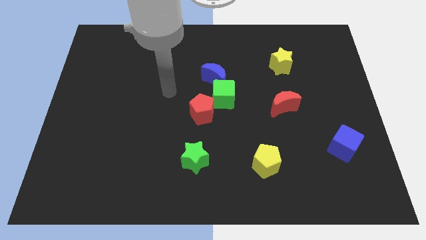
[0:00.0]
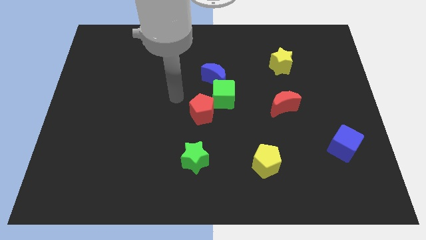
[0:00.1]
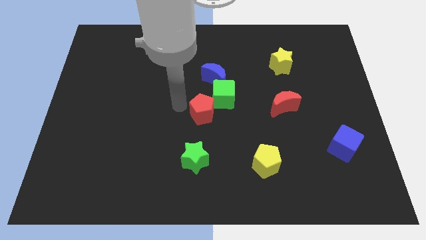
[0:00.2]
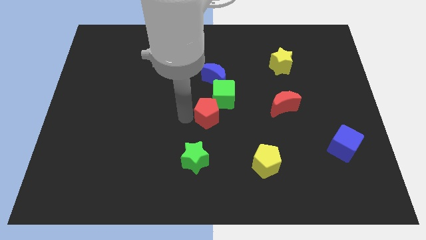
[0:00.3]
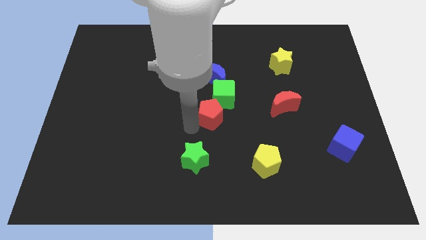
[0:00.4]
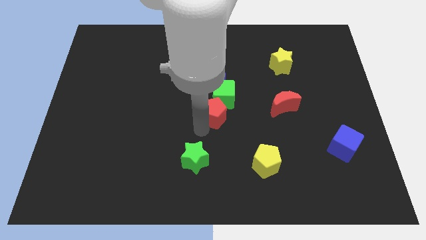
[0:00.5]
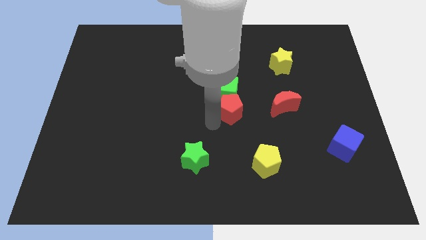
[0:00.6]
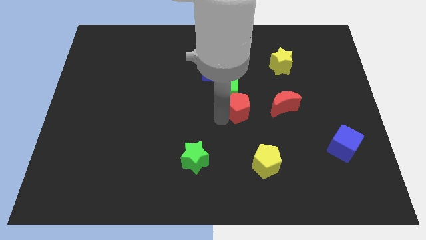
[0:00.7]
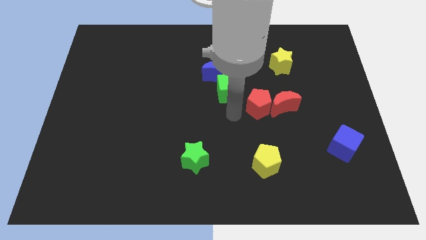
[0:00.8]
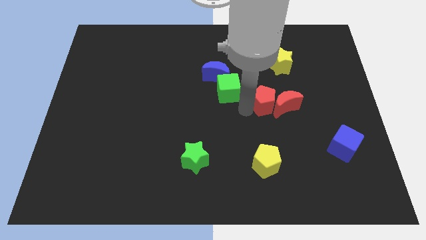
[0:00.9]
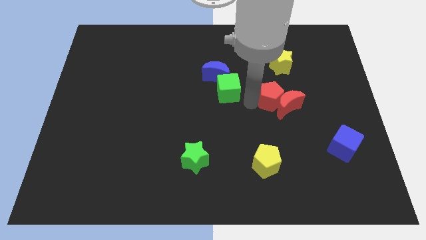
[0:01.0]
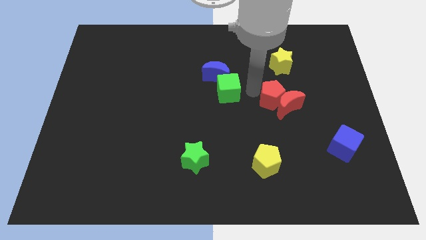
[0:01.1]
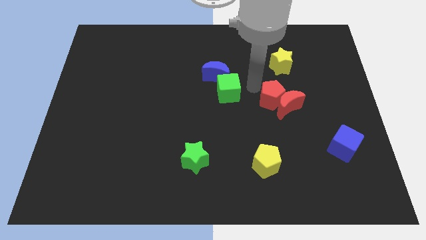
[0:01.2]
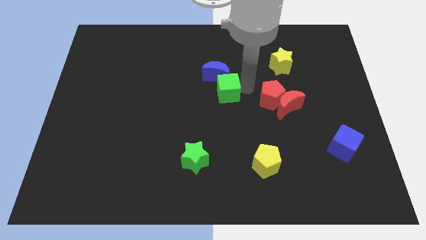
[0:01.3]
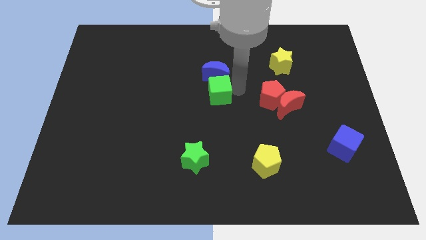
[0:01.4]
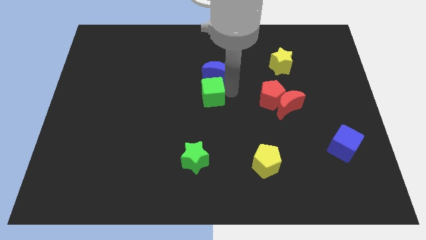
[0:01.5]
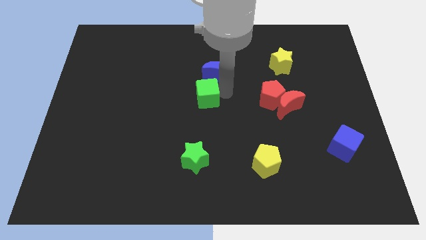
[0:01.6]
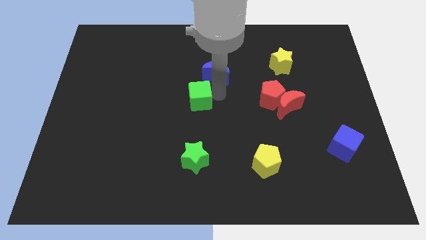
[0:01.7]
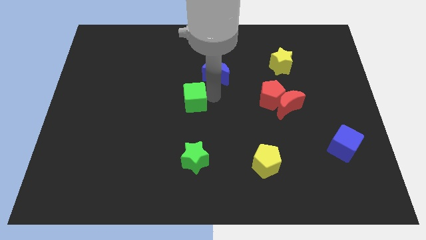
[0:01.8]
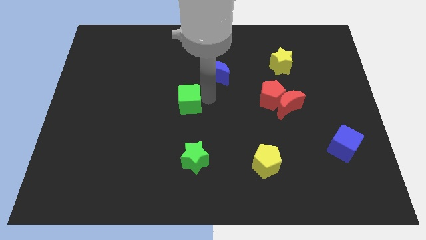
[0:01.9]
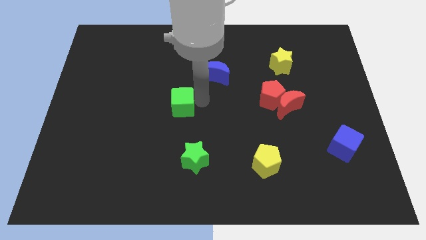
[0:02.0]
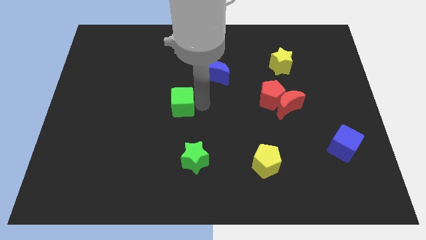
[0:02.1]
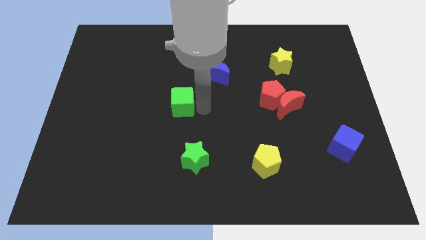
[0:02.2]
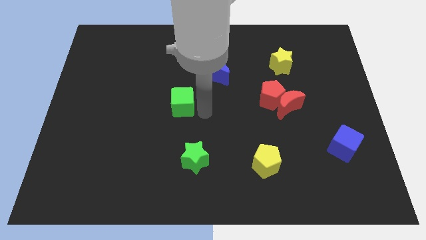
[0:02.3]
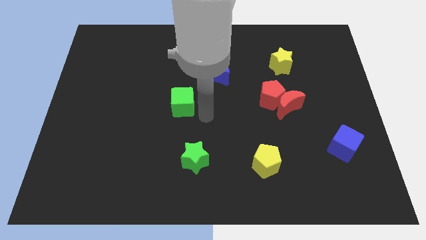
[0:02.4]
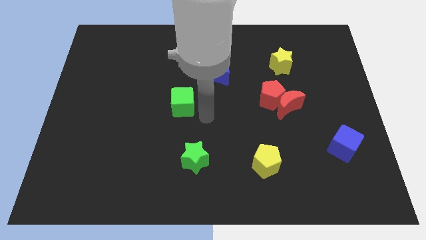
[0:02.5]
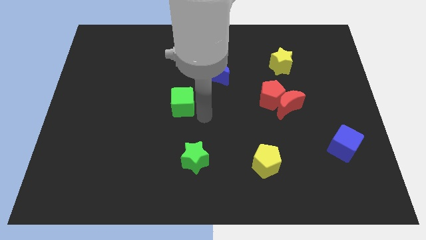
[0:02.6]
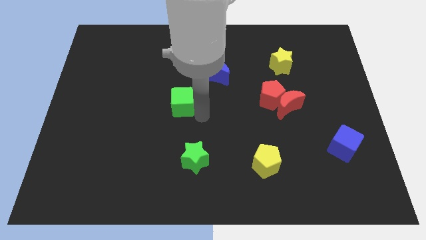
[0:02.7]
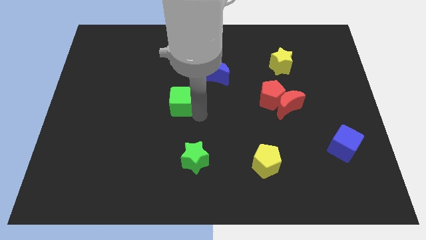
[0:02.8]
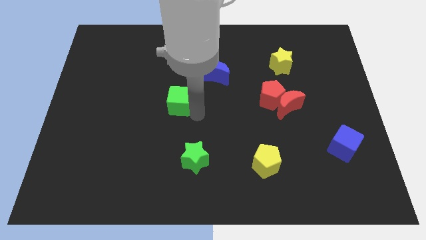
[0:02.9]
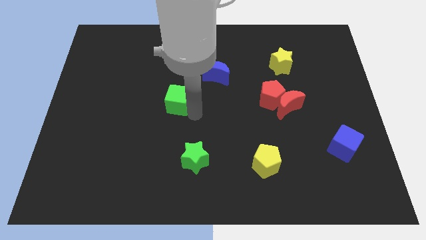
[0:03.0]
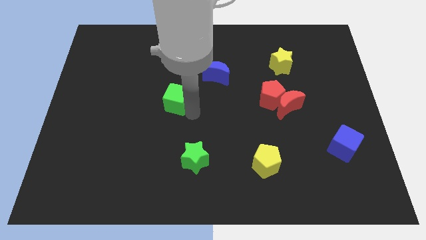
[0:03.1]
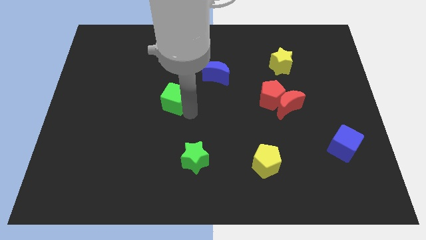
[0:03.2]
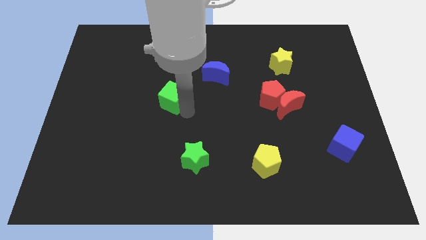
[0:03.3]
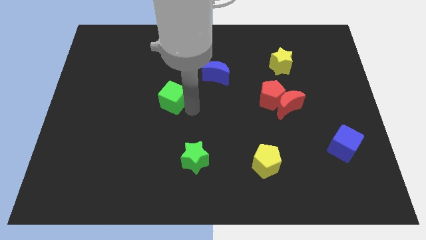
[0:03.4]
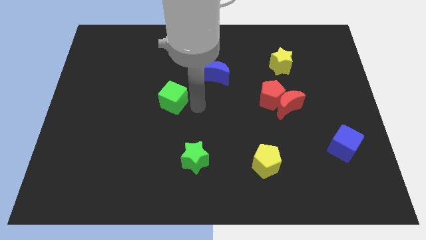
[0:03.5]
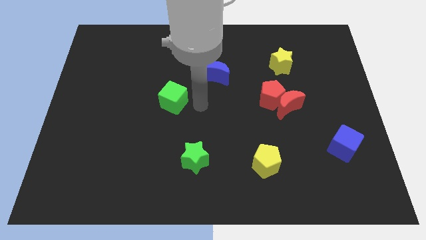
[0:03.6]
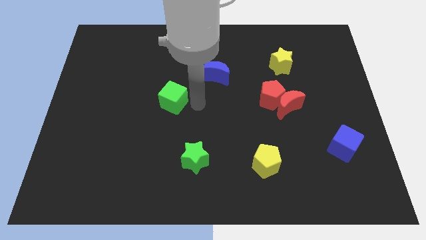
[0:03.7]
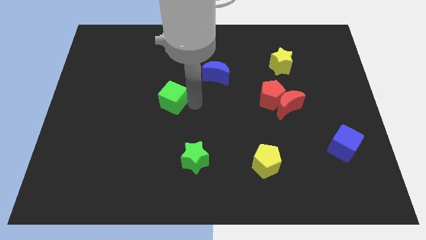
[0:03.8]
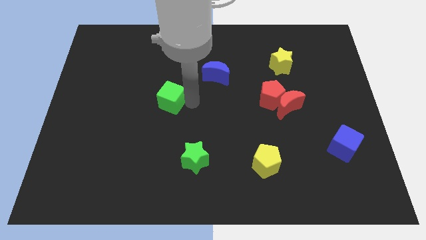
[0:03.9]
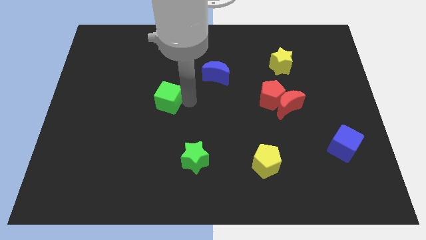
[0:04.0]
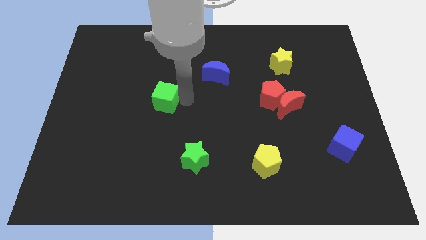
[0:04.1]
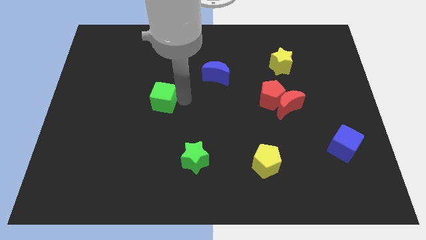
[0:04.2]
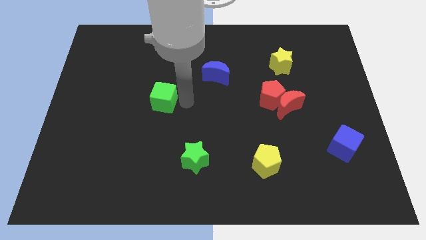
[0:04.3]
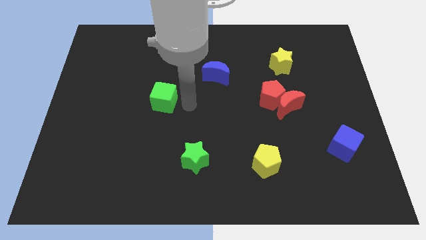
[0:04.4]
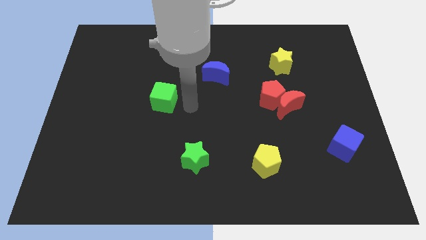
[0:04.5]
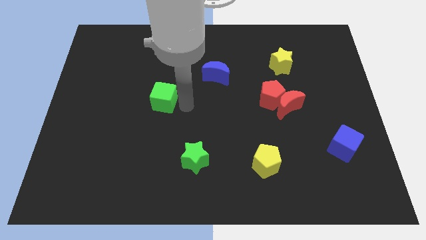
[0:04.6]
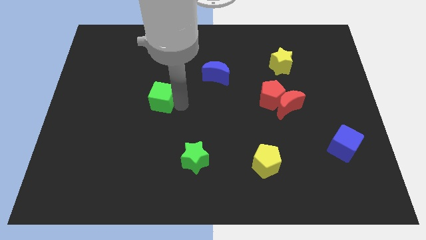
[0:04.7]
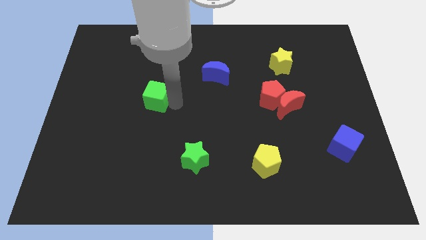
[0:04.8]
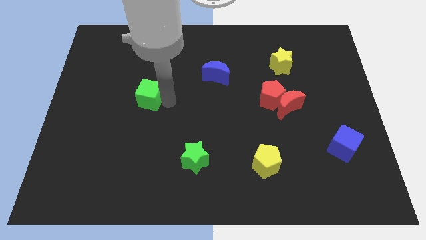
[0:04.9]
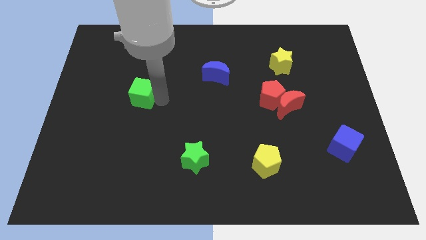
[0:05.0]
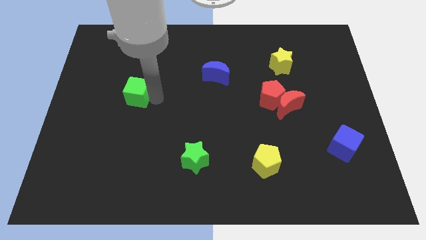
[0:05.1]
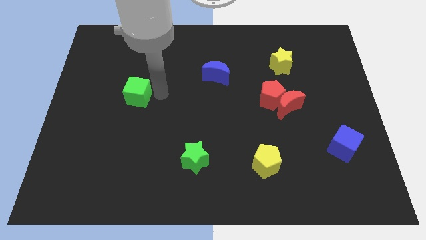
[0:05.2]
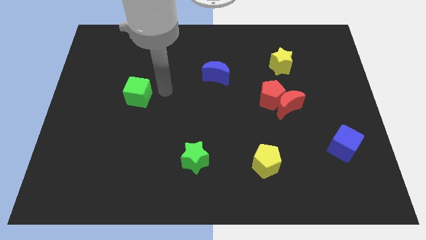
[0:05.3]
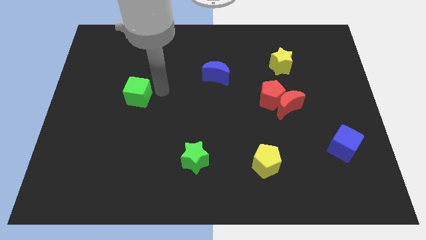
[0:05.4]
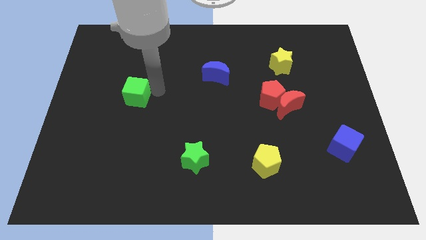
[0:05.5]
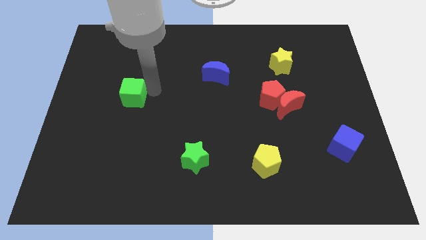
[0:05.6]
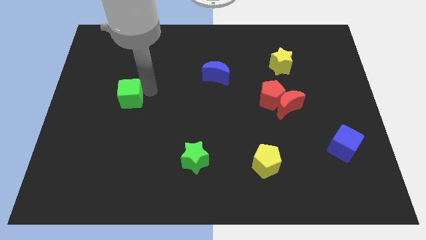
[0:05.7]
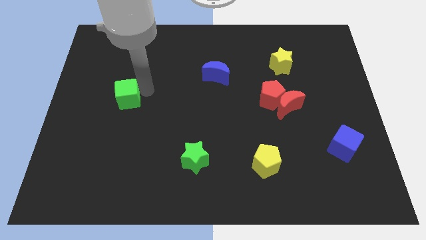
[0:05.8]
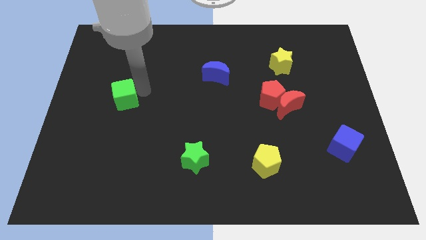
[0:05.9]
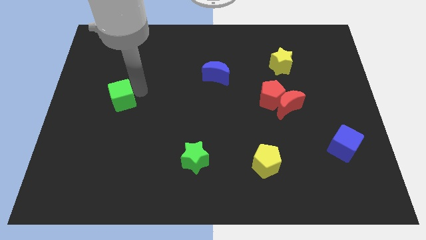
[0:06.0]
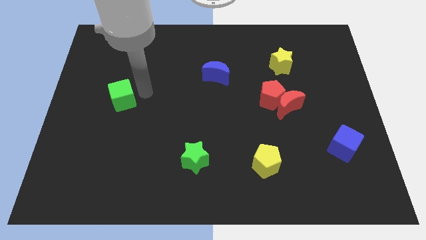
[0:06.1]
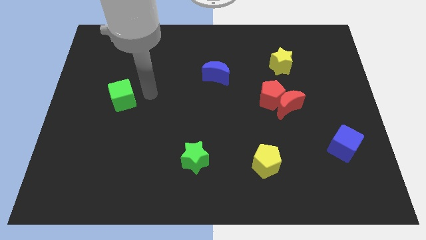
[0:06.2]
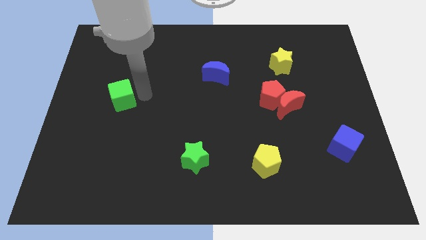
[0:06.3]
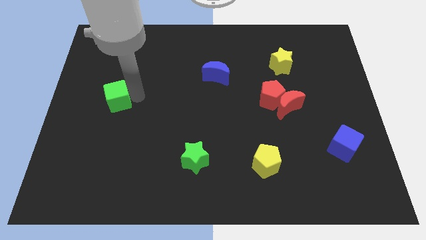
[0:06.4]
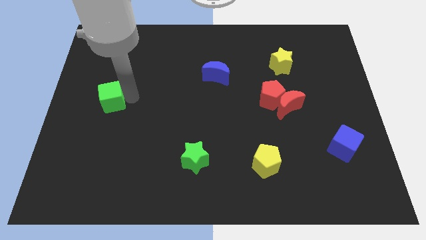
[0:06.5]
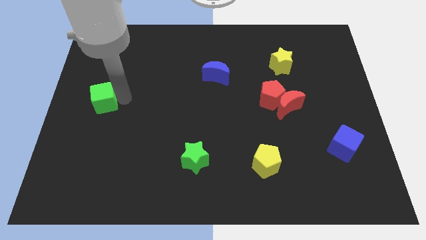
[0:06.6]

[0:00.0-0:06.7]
slide the green cube to the left side of the board
